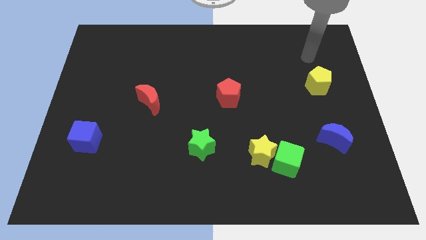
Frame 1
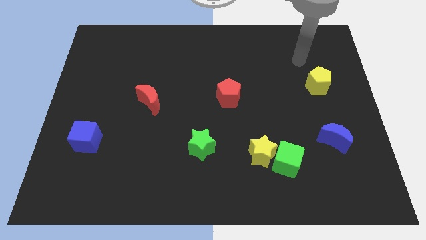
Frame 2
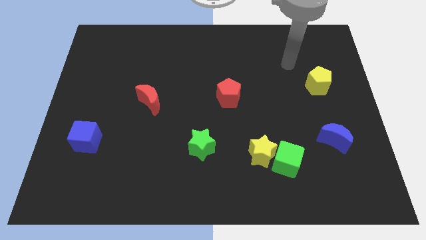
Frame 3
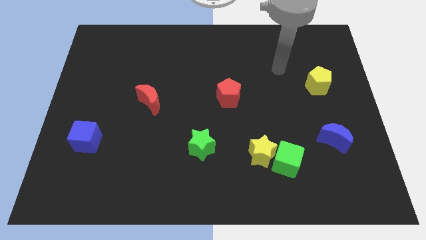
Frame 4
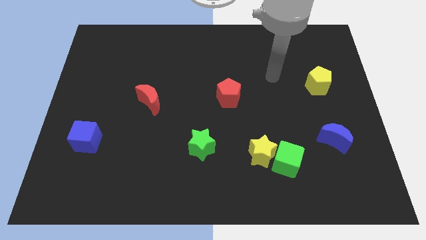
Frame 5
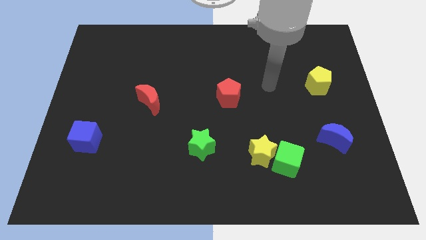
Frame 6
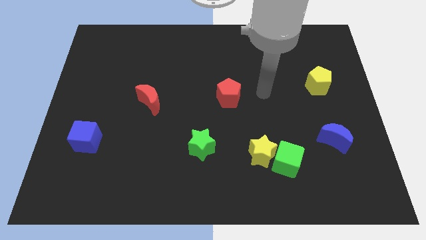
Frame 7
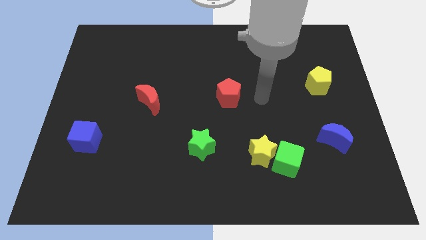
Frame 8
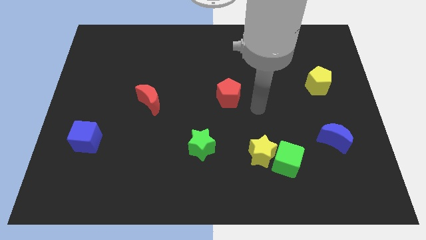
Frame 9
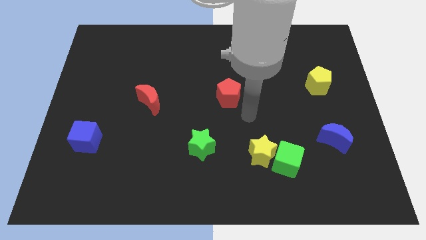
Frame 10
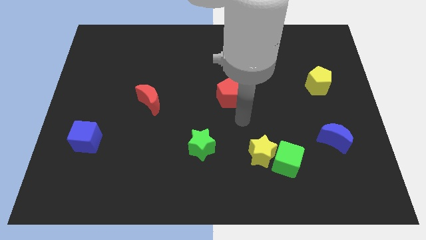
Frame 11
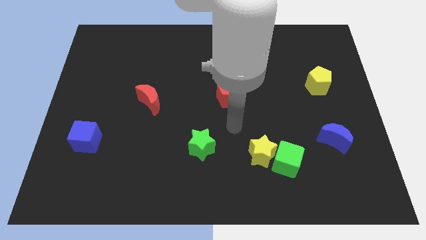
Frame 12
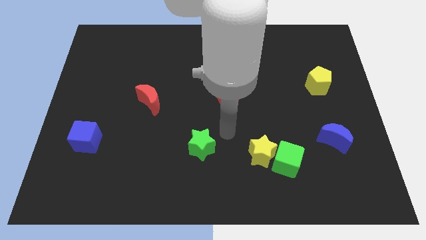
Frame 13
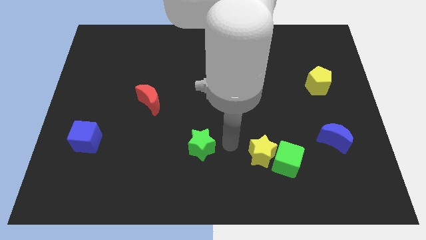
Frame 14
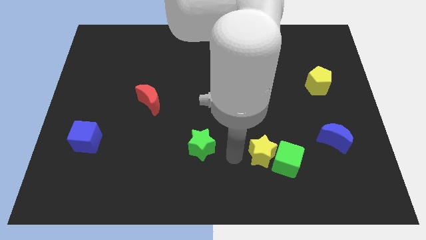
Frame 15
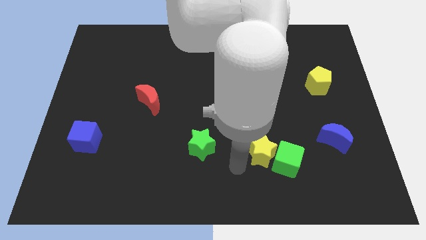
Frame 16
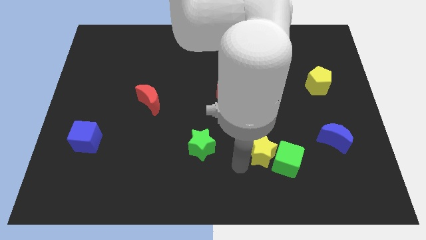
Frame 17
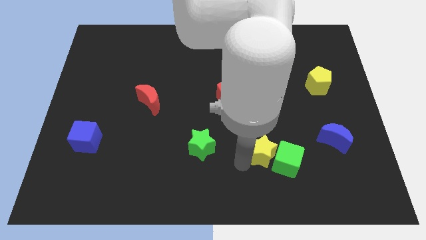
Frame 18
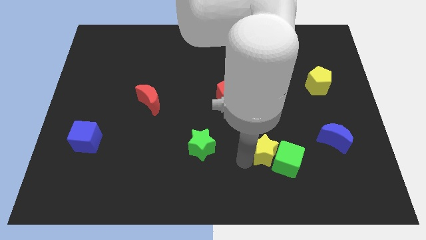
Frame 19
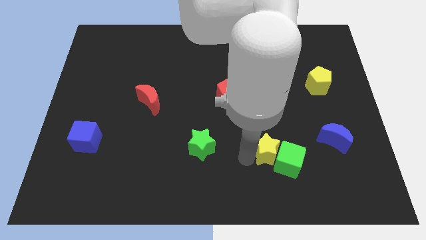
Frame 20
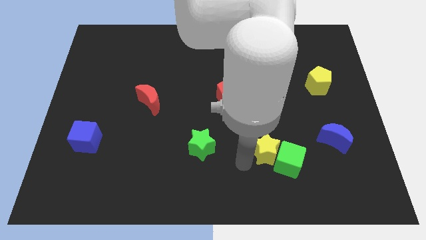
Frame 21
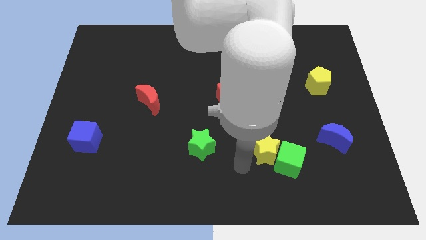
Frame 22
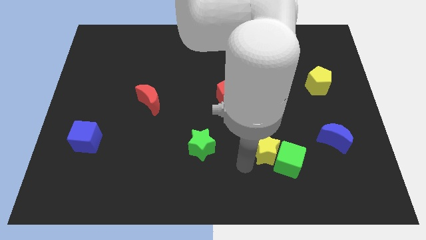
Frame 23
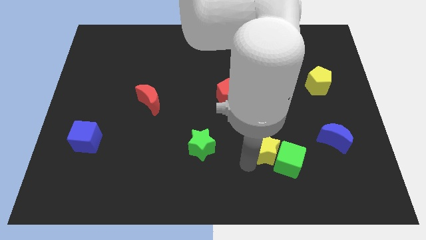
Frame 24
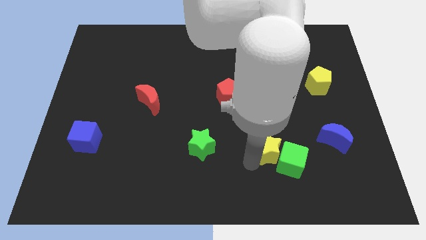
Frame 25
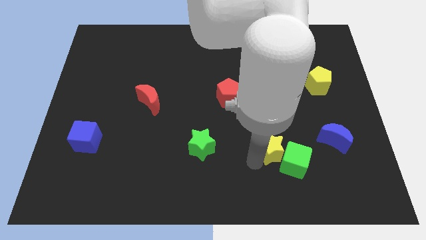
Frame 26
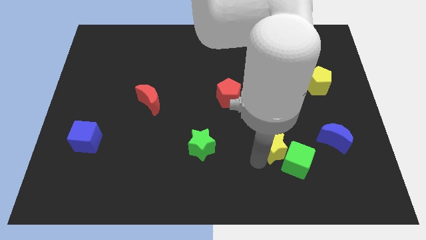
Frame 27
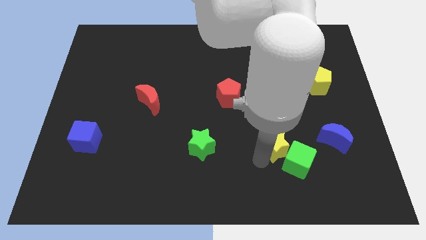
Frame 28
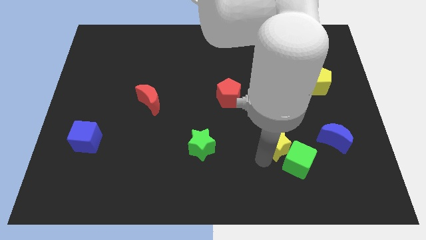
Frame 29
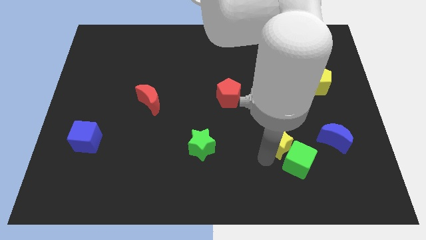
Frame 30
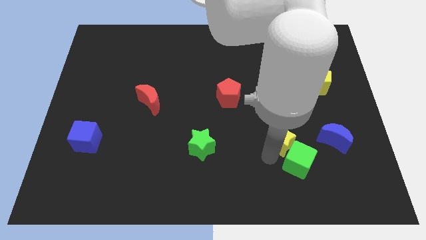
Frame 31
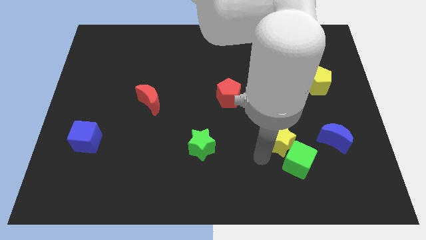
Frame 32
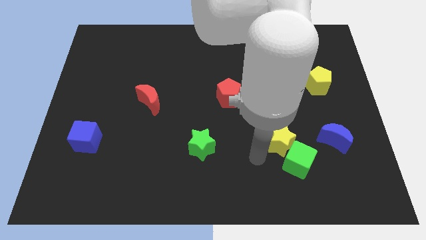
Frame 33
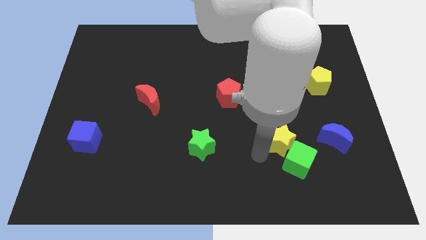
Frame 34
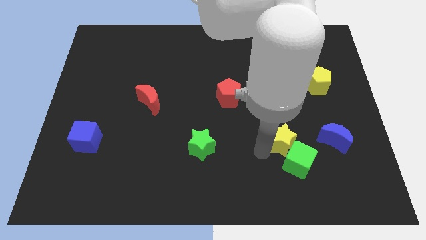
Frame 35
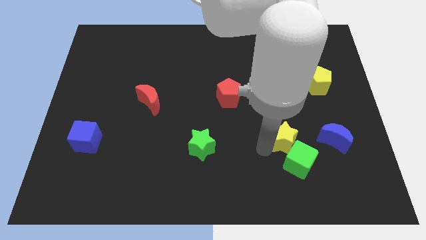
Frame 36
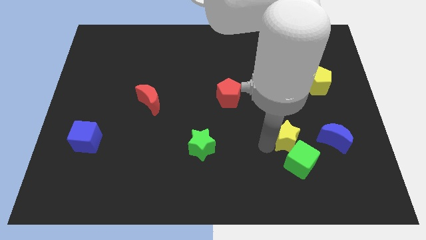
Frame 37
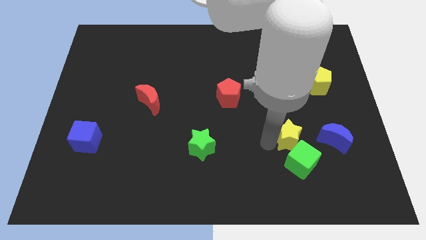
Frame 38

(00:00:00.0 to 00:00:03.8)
move the yellow star a little bit diagonally up and right

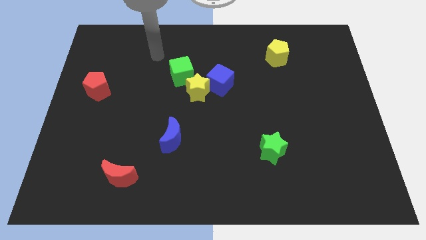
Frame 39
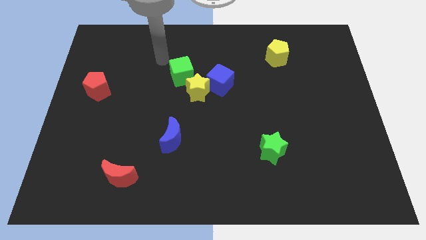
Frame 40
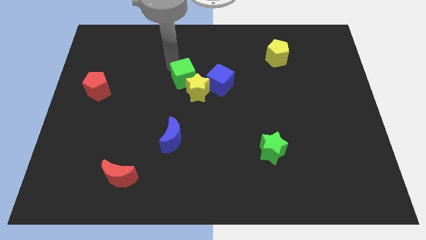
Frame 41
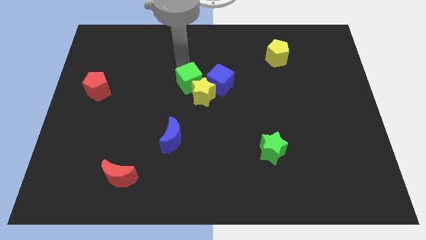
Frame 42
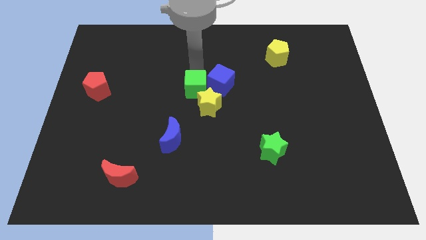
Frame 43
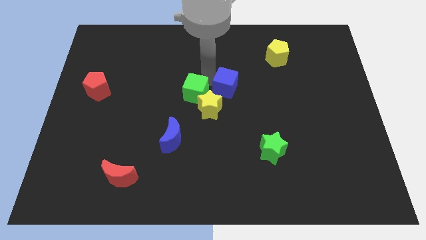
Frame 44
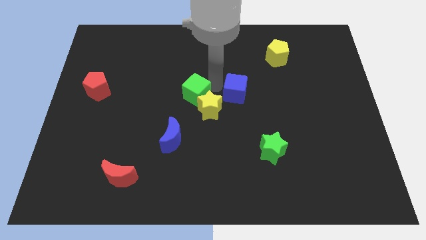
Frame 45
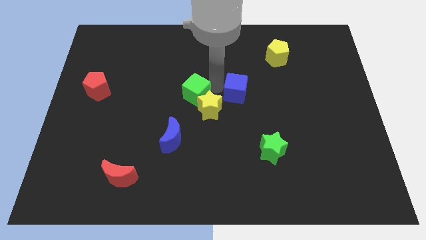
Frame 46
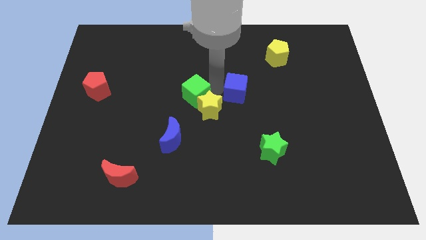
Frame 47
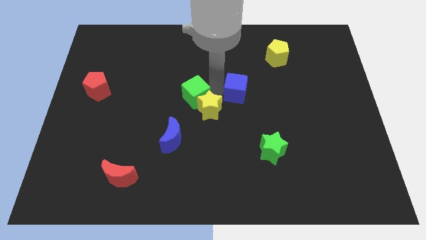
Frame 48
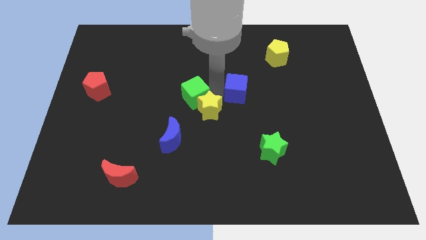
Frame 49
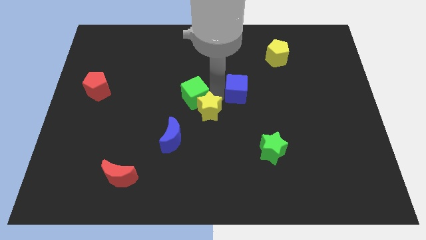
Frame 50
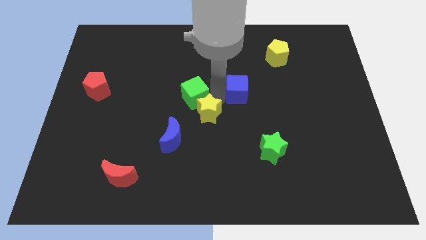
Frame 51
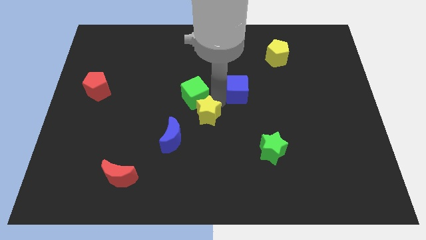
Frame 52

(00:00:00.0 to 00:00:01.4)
move the yellow star downwards a bit

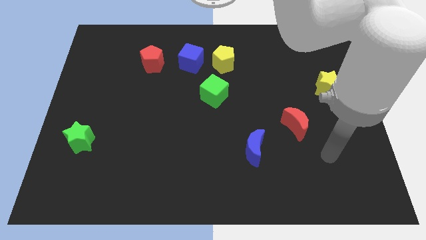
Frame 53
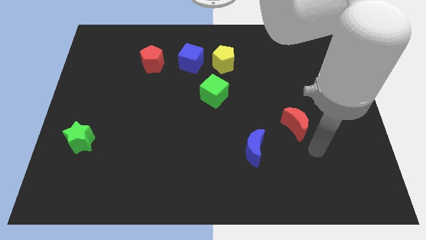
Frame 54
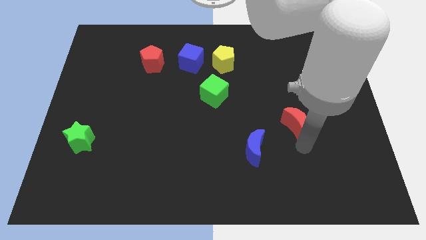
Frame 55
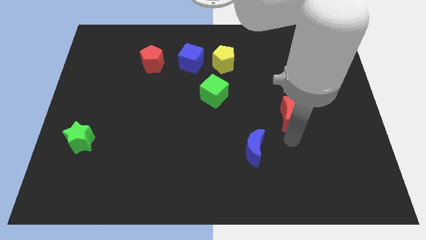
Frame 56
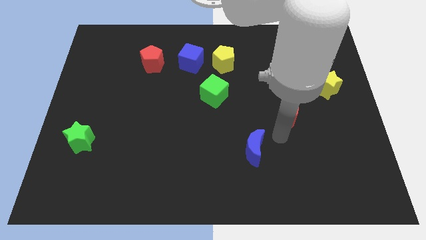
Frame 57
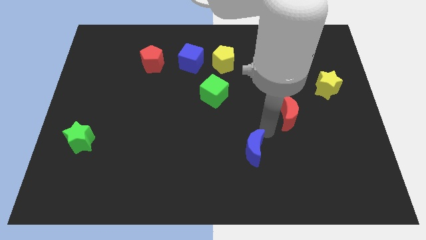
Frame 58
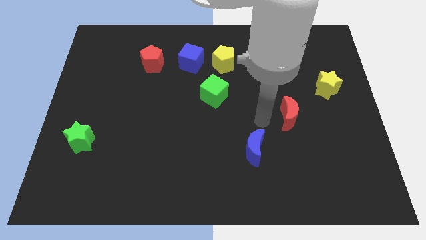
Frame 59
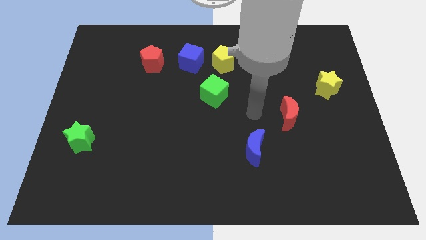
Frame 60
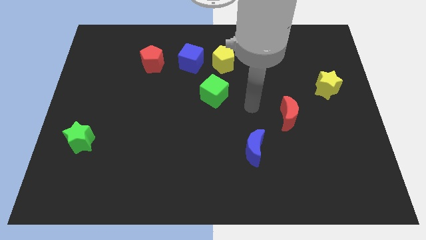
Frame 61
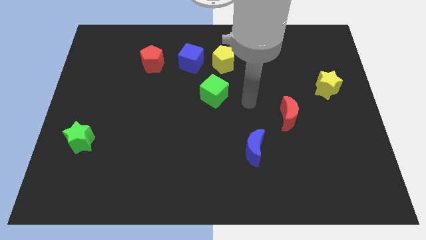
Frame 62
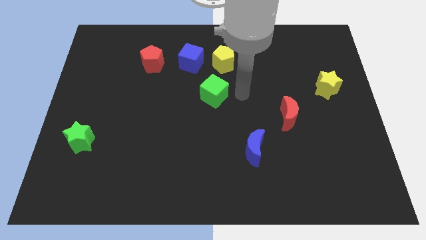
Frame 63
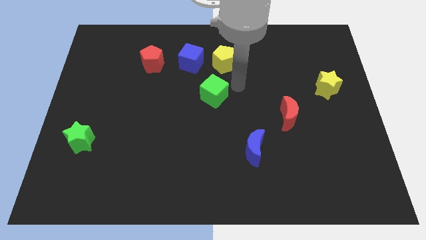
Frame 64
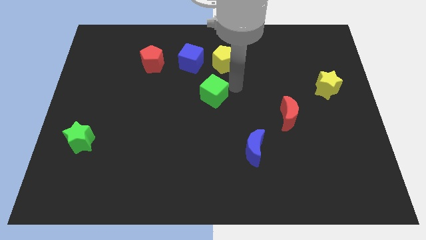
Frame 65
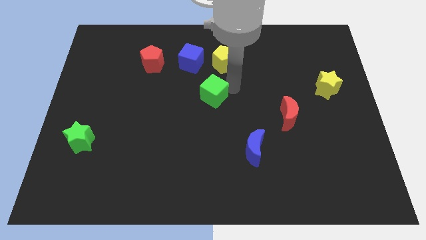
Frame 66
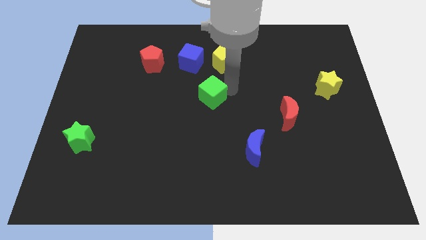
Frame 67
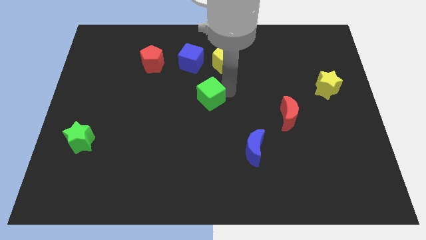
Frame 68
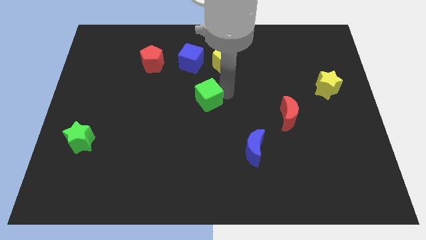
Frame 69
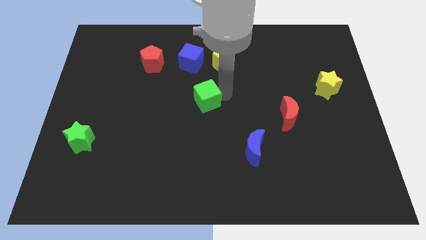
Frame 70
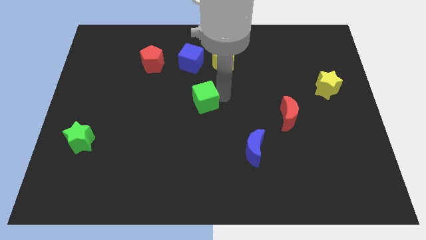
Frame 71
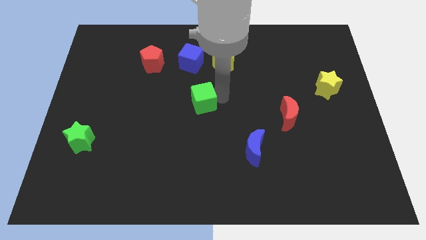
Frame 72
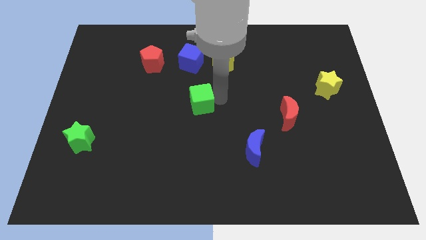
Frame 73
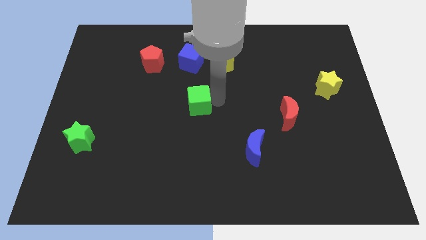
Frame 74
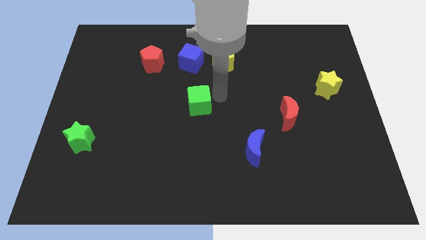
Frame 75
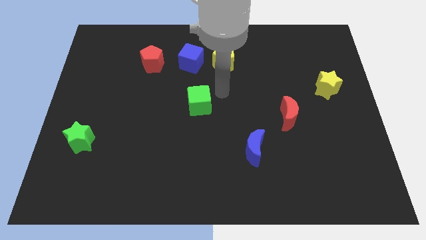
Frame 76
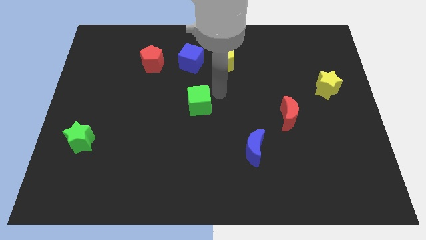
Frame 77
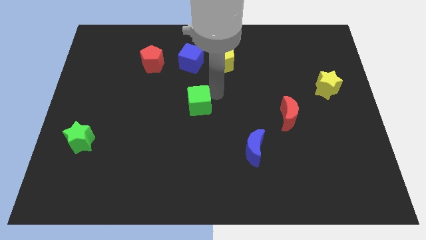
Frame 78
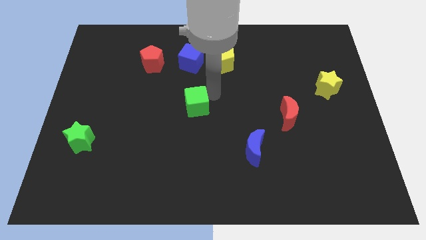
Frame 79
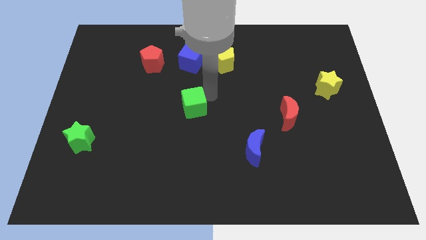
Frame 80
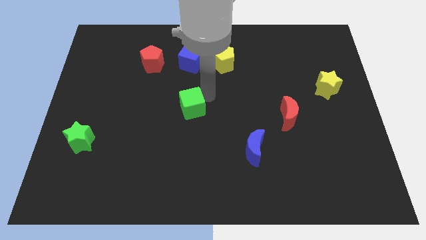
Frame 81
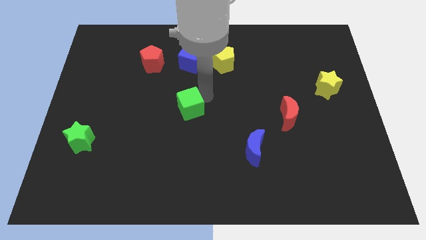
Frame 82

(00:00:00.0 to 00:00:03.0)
slightly slide the green cube diagonally downwards and left

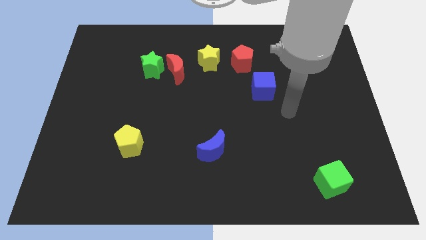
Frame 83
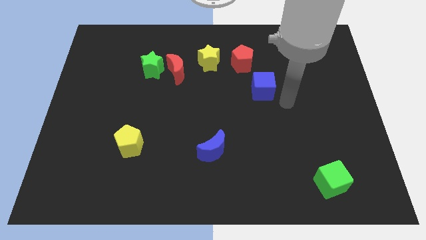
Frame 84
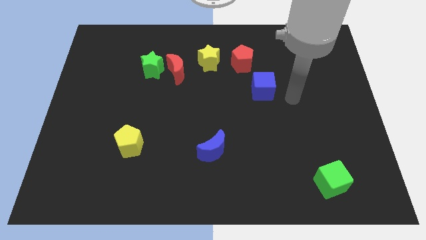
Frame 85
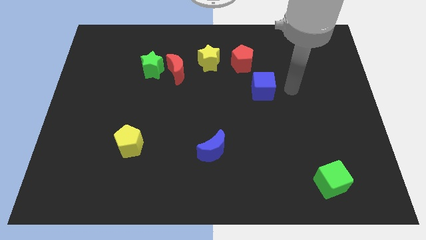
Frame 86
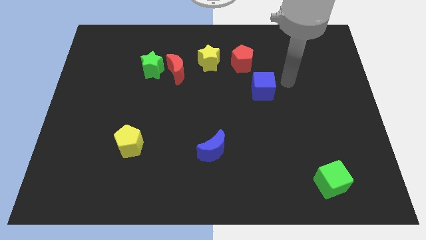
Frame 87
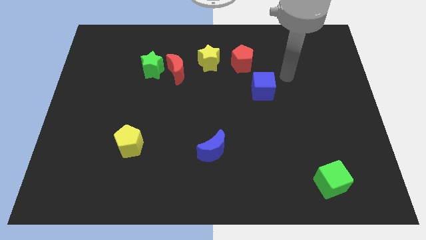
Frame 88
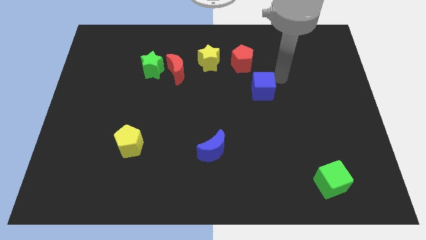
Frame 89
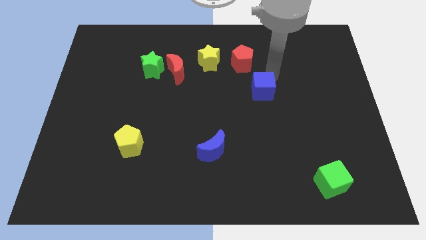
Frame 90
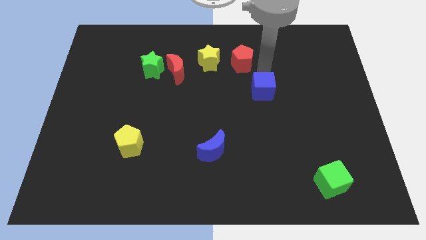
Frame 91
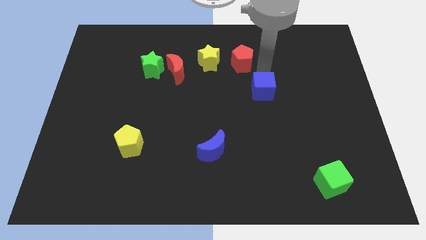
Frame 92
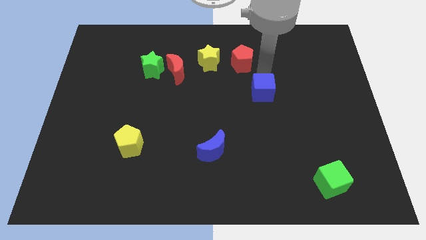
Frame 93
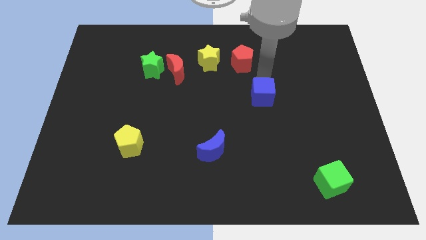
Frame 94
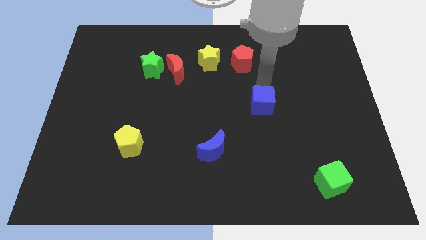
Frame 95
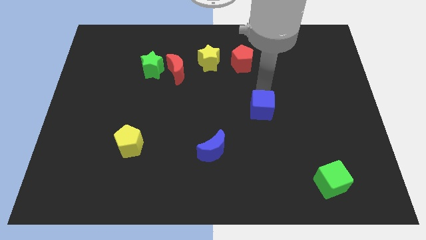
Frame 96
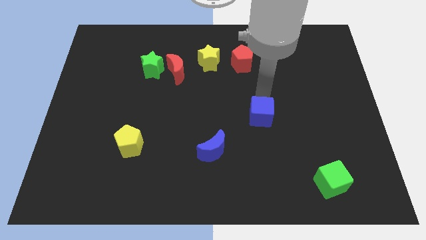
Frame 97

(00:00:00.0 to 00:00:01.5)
push the blue cube down slightly
